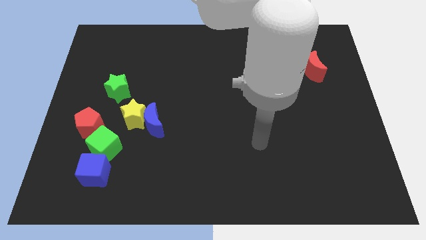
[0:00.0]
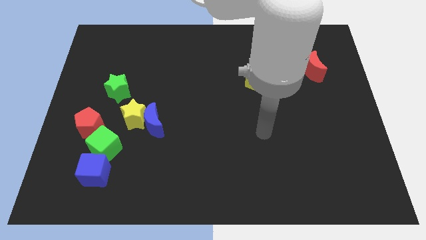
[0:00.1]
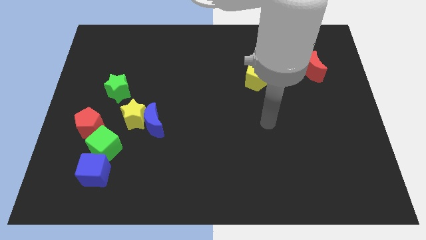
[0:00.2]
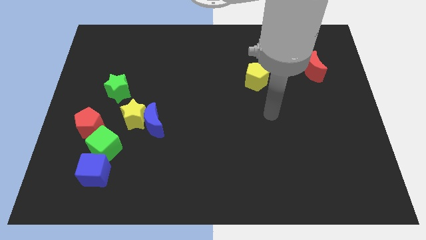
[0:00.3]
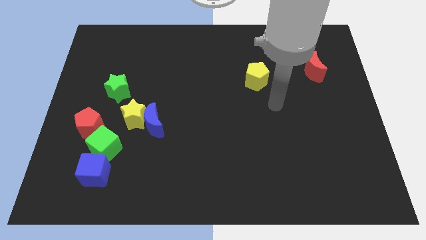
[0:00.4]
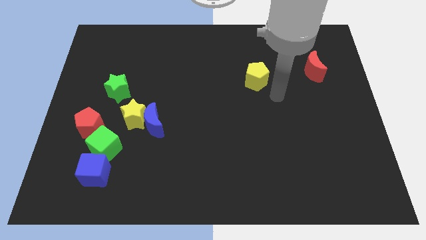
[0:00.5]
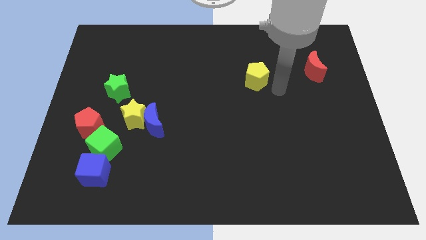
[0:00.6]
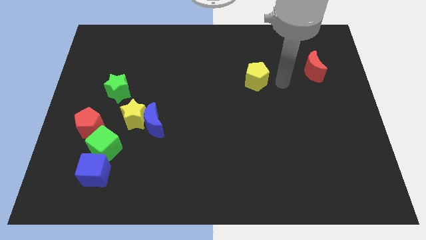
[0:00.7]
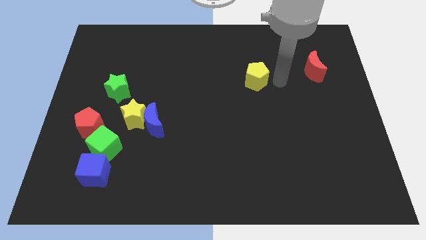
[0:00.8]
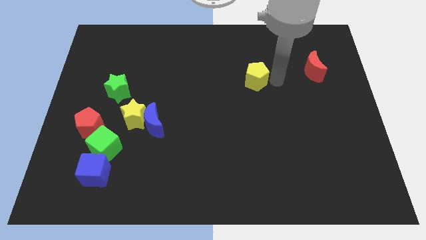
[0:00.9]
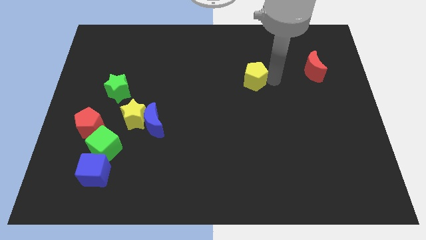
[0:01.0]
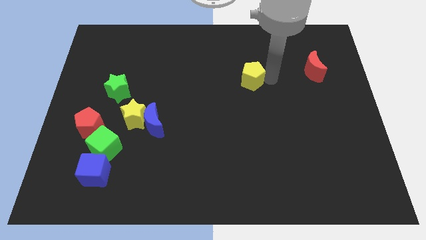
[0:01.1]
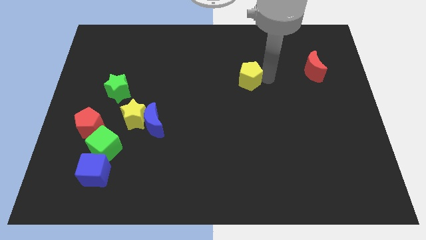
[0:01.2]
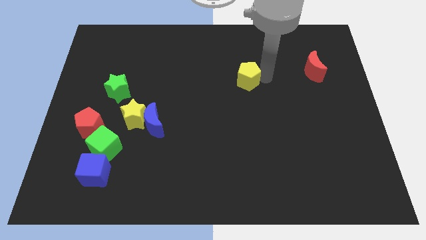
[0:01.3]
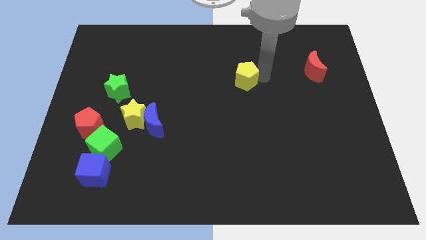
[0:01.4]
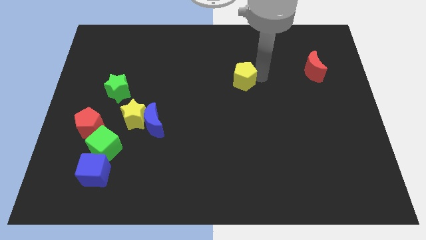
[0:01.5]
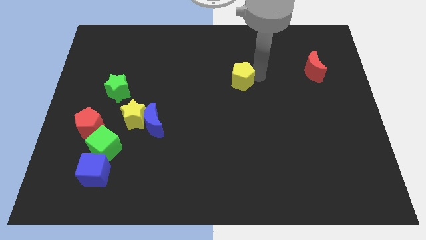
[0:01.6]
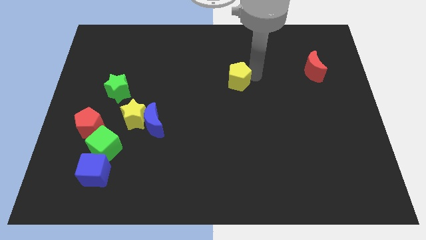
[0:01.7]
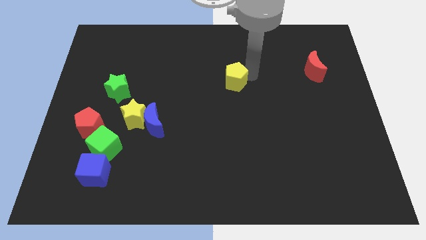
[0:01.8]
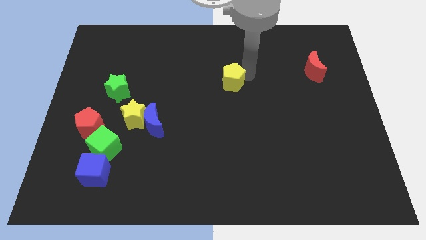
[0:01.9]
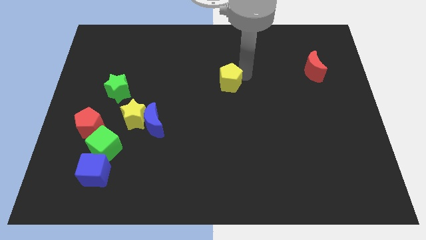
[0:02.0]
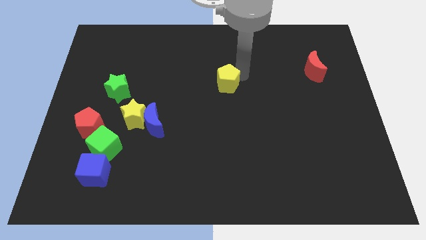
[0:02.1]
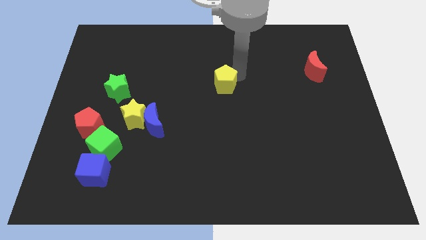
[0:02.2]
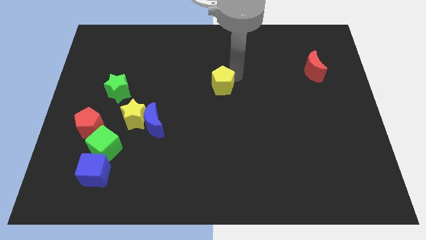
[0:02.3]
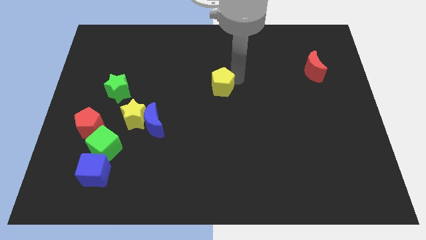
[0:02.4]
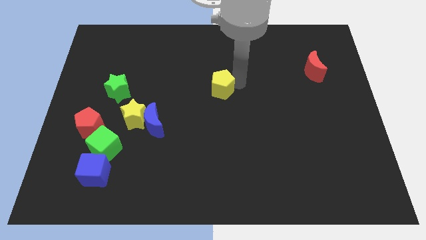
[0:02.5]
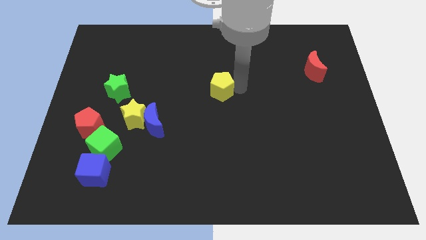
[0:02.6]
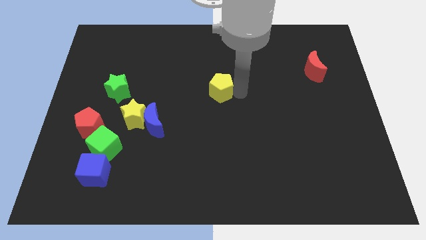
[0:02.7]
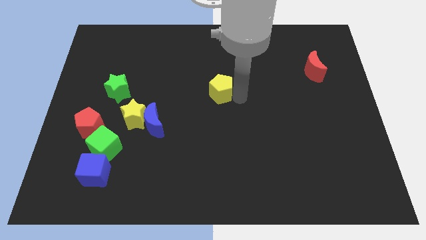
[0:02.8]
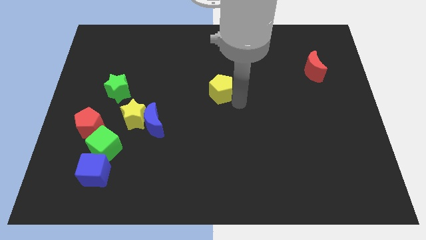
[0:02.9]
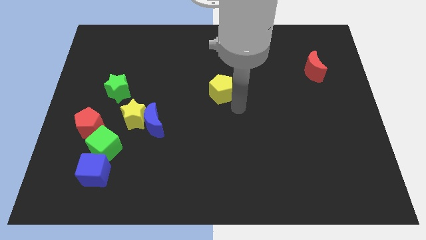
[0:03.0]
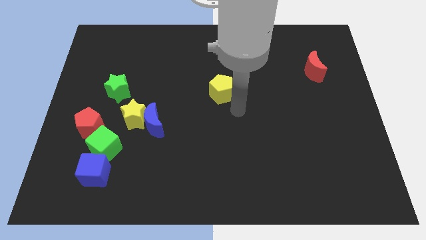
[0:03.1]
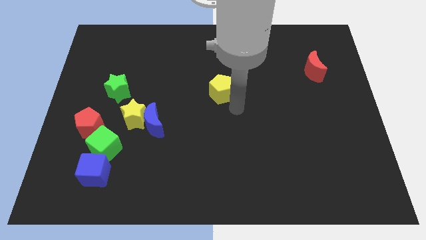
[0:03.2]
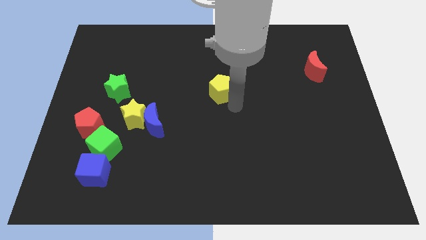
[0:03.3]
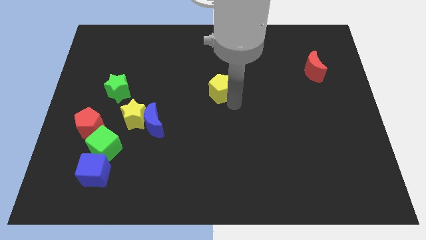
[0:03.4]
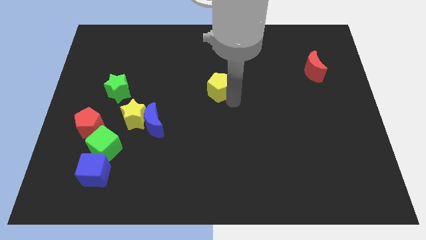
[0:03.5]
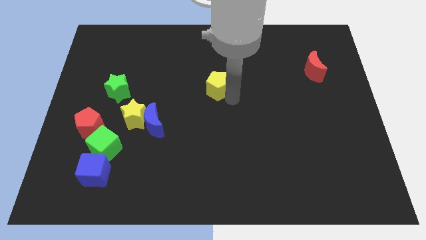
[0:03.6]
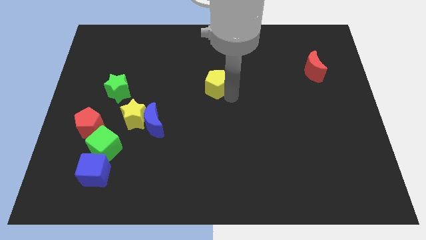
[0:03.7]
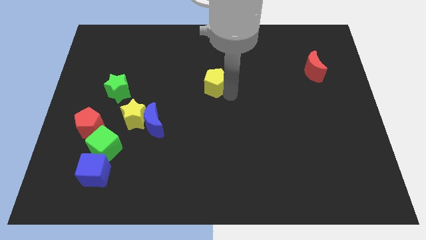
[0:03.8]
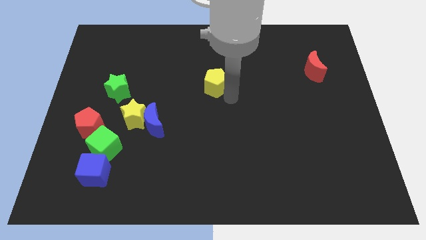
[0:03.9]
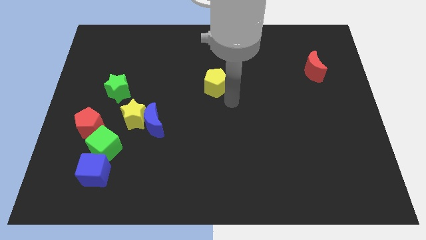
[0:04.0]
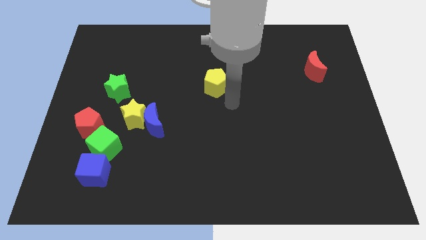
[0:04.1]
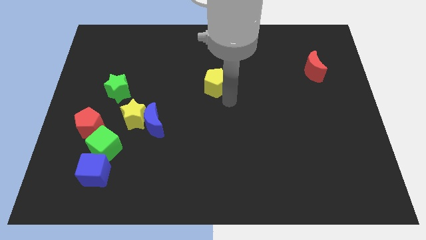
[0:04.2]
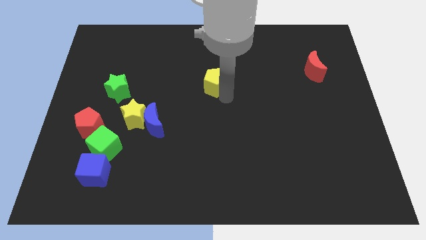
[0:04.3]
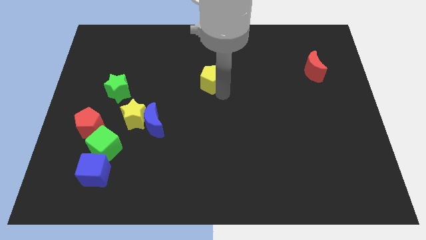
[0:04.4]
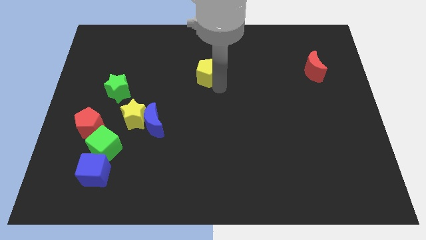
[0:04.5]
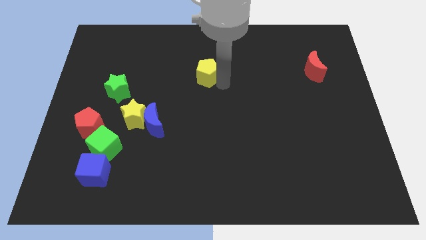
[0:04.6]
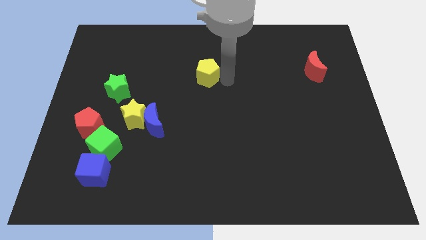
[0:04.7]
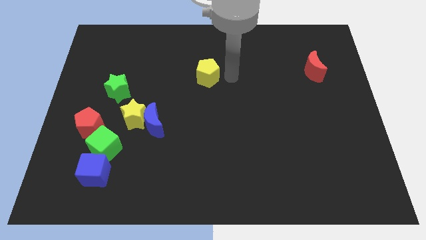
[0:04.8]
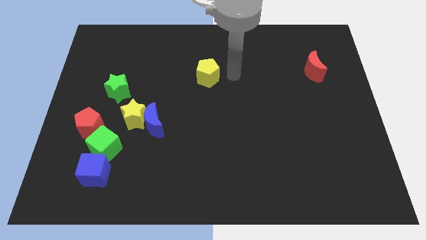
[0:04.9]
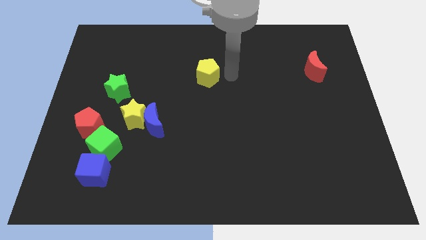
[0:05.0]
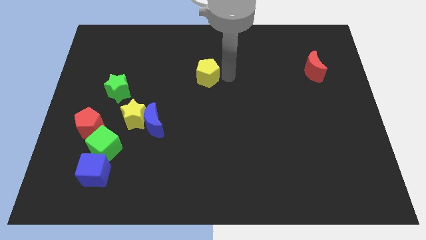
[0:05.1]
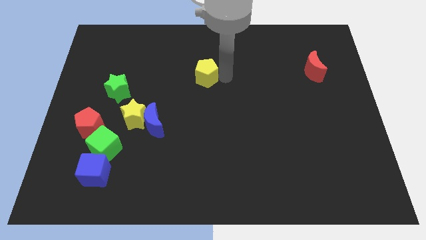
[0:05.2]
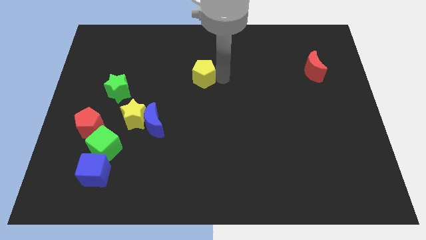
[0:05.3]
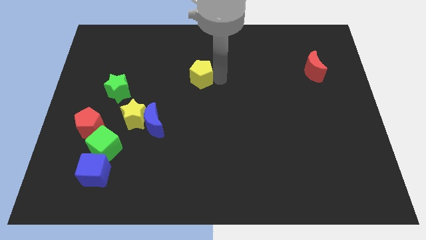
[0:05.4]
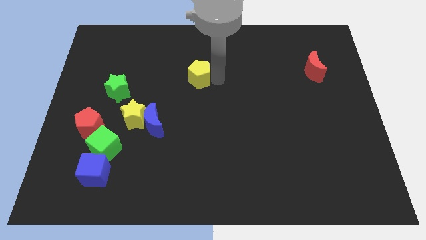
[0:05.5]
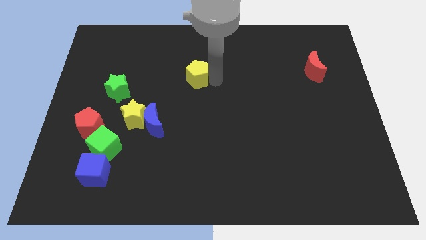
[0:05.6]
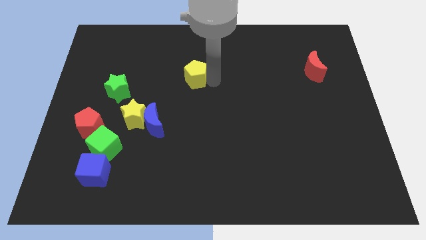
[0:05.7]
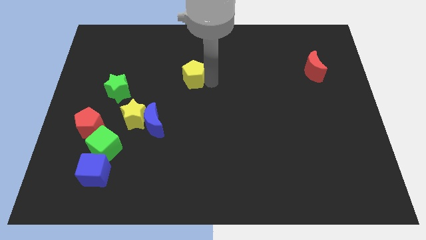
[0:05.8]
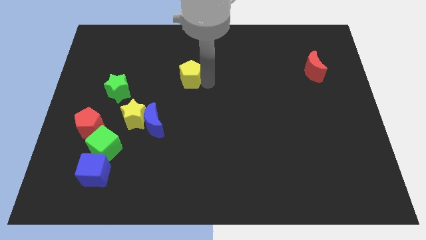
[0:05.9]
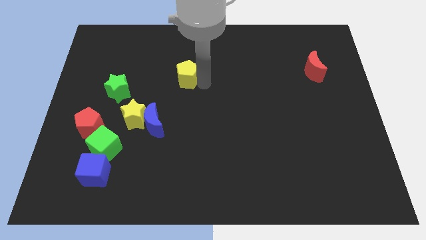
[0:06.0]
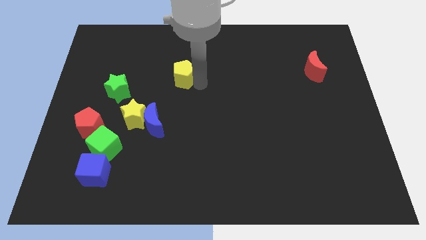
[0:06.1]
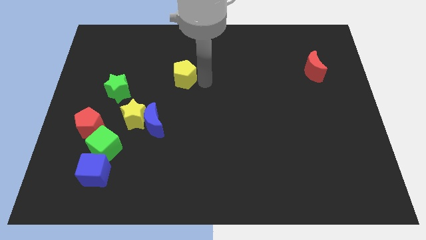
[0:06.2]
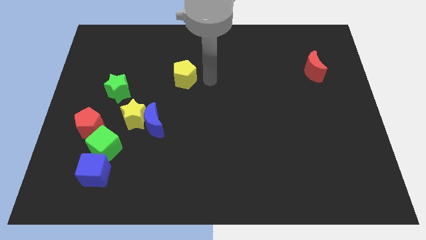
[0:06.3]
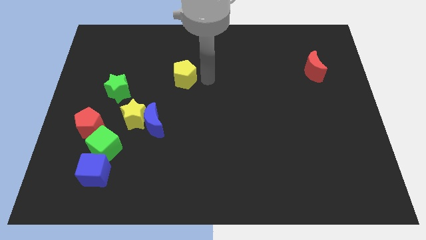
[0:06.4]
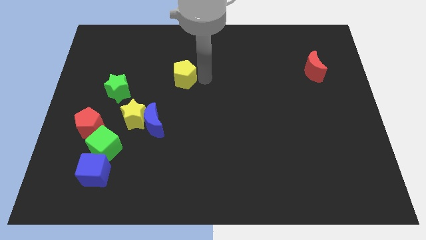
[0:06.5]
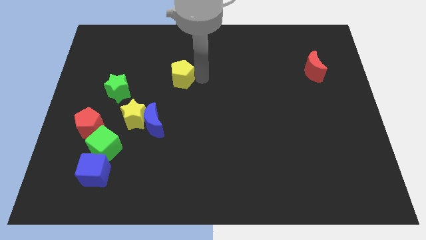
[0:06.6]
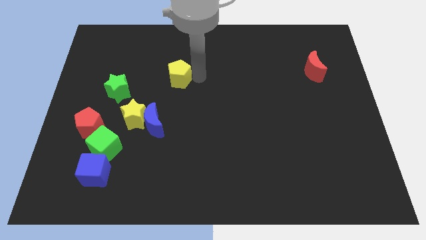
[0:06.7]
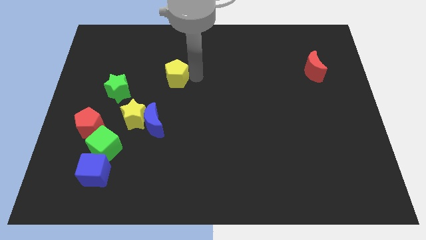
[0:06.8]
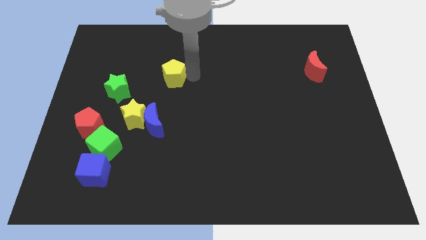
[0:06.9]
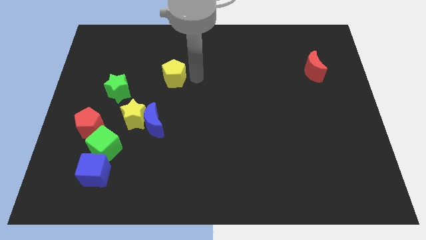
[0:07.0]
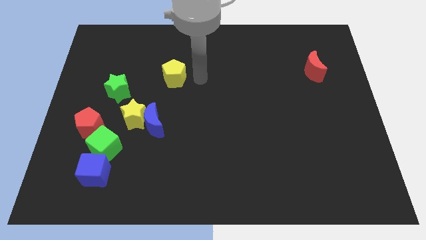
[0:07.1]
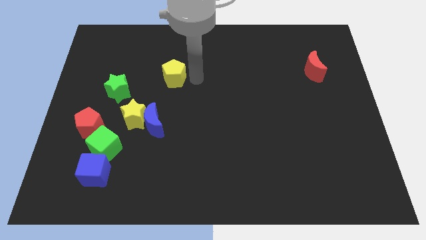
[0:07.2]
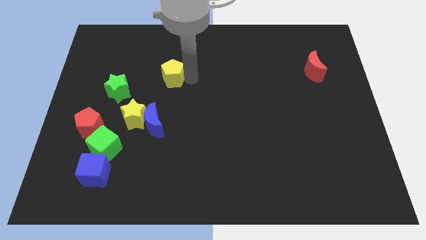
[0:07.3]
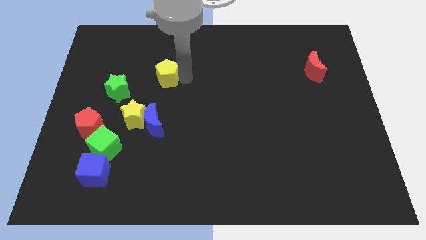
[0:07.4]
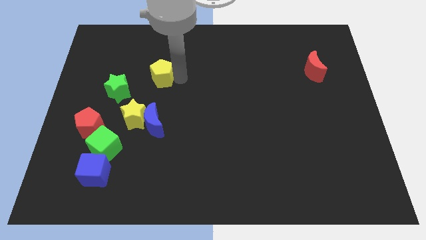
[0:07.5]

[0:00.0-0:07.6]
slide the yellow pentagon diagonally up and to the right of the green star

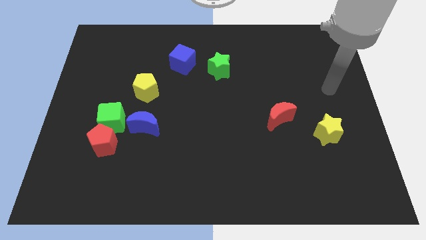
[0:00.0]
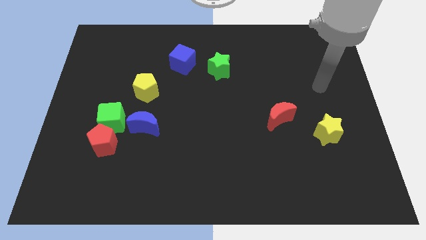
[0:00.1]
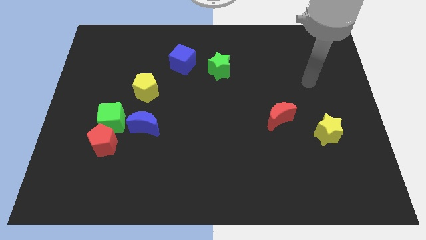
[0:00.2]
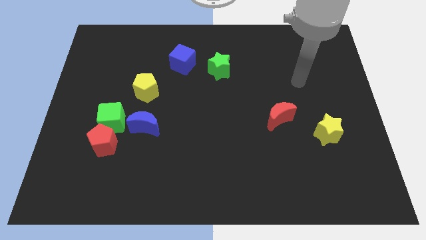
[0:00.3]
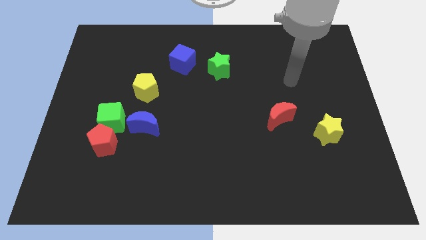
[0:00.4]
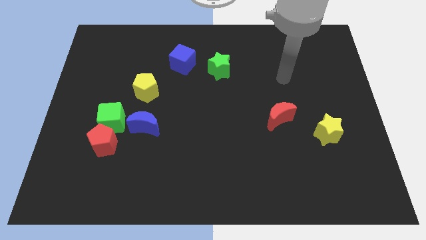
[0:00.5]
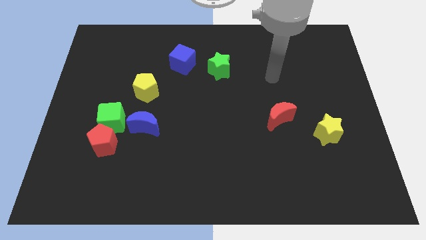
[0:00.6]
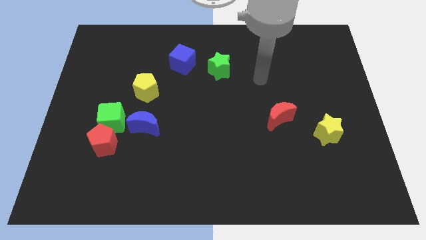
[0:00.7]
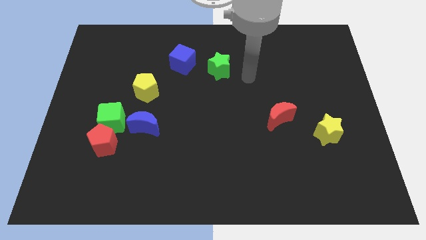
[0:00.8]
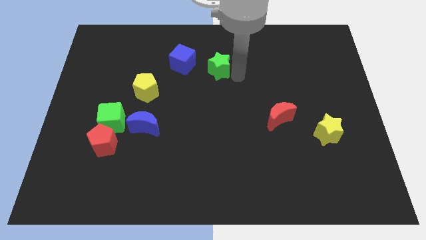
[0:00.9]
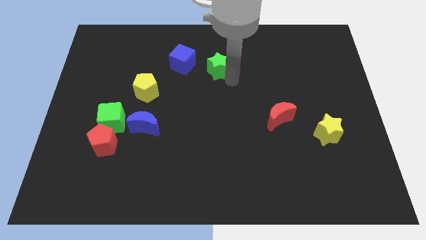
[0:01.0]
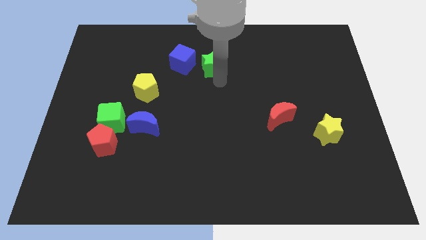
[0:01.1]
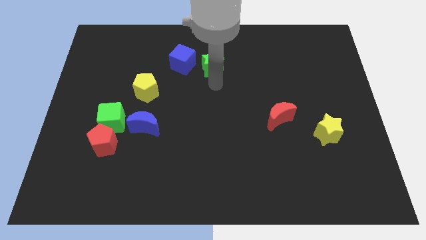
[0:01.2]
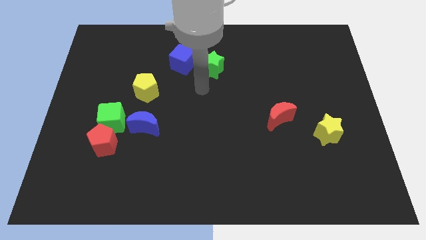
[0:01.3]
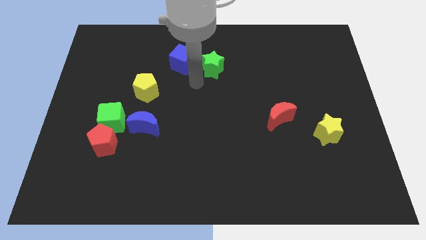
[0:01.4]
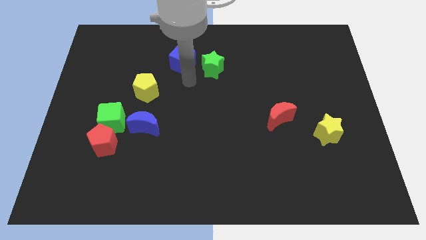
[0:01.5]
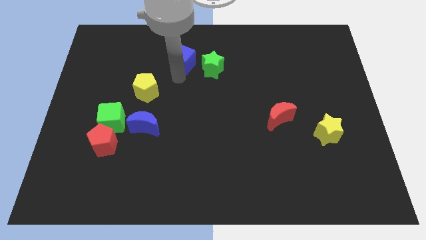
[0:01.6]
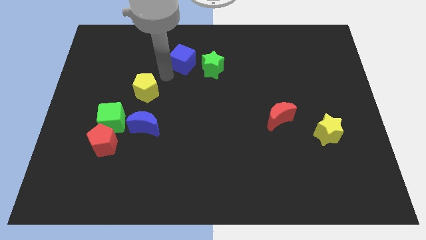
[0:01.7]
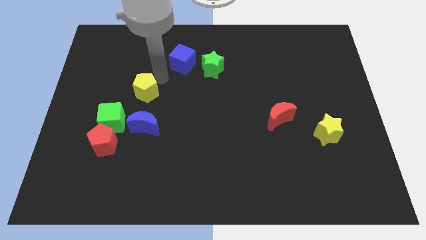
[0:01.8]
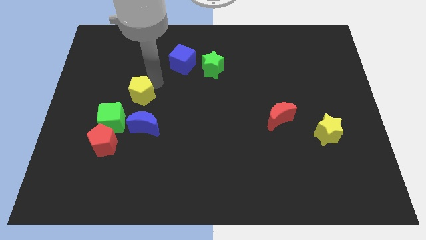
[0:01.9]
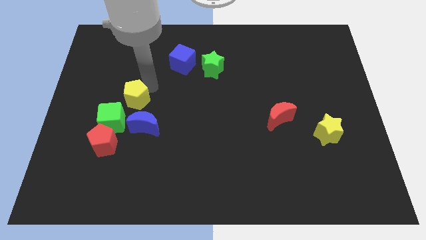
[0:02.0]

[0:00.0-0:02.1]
move the yellow pentagon diagonally up and to the left of the blue moon
